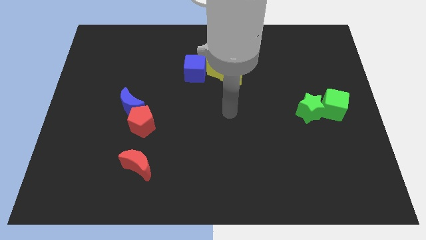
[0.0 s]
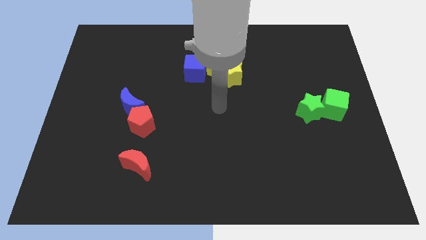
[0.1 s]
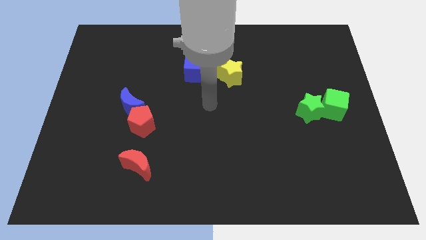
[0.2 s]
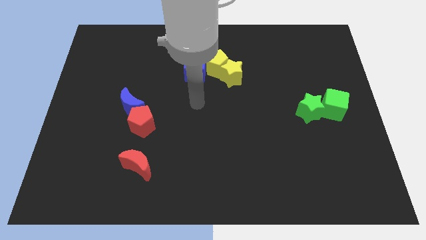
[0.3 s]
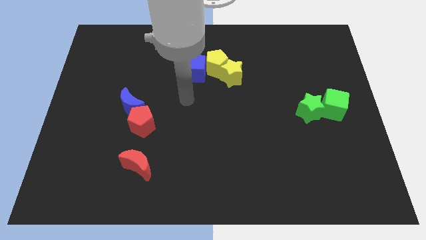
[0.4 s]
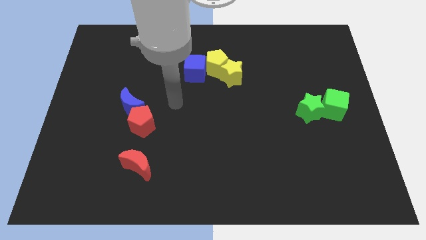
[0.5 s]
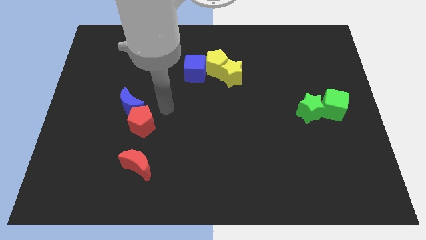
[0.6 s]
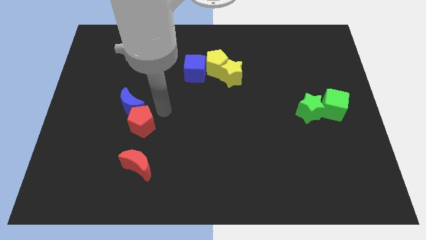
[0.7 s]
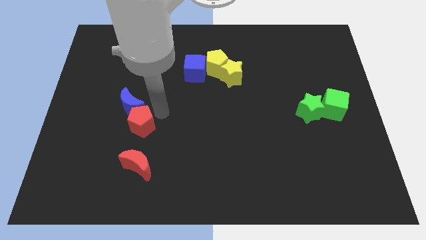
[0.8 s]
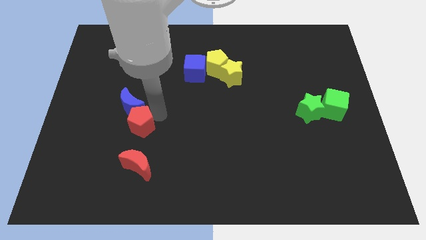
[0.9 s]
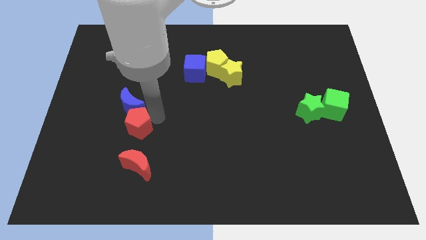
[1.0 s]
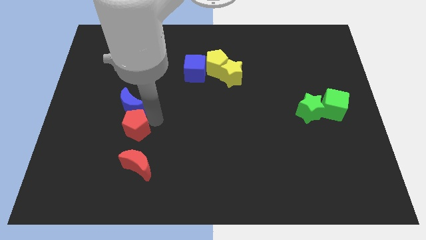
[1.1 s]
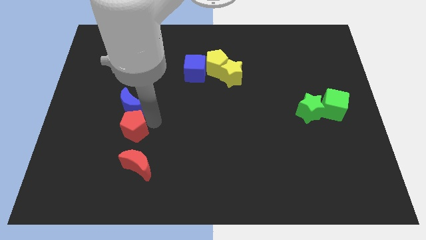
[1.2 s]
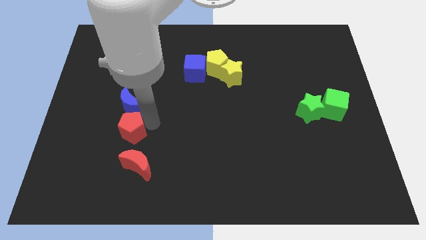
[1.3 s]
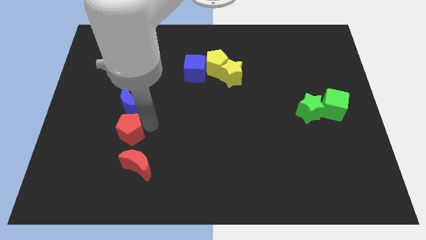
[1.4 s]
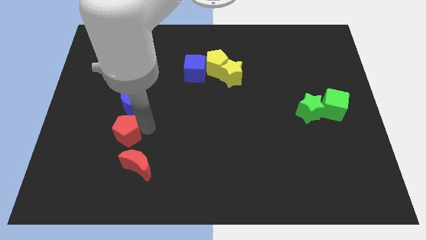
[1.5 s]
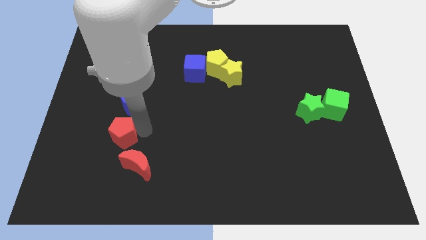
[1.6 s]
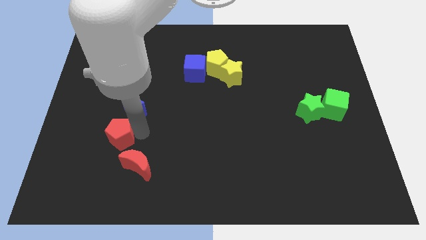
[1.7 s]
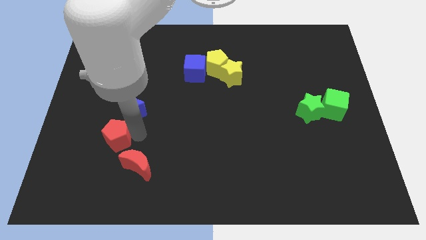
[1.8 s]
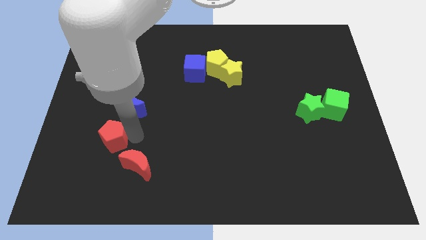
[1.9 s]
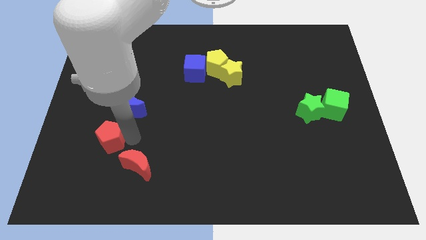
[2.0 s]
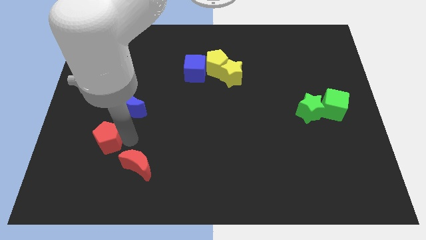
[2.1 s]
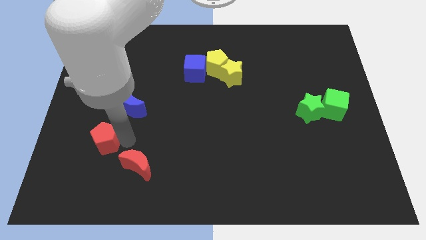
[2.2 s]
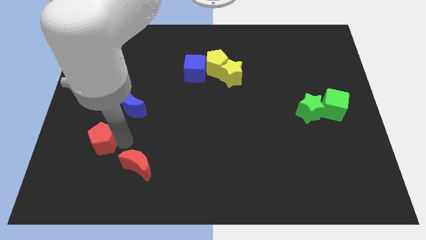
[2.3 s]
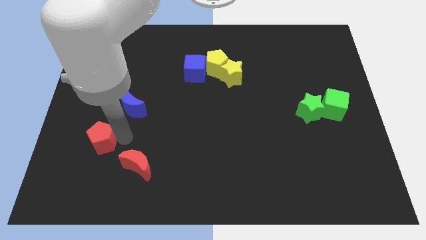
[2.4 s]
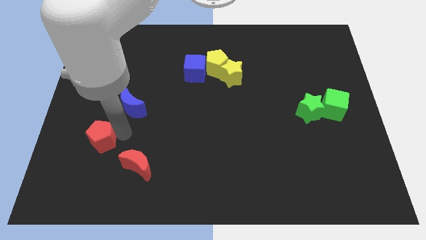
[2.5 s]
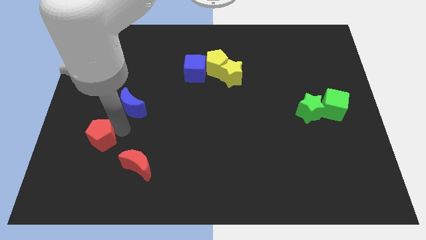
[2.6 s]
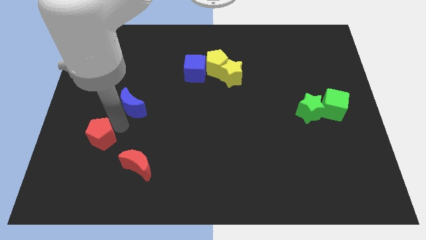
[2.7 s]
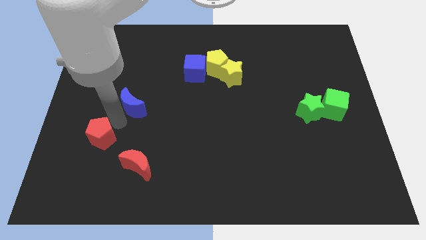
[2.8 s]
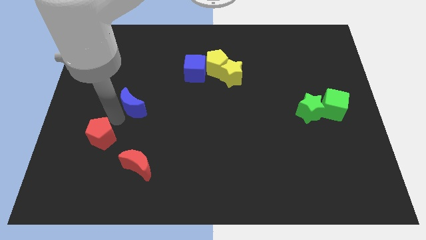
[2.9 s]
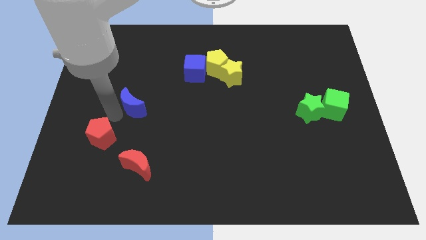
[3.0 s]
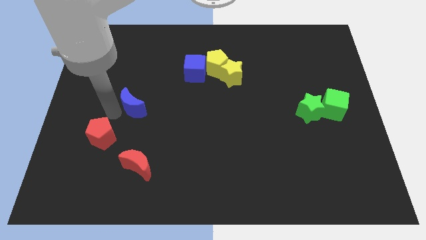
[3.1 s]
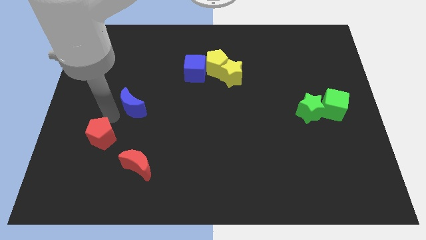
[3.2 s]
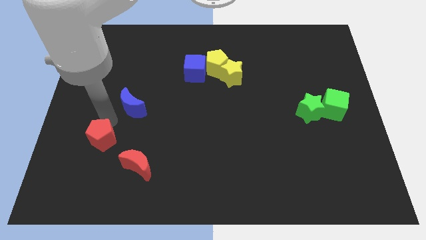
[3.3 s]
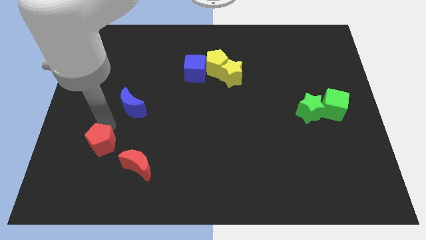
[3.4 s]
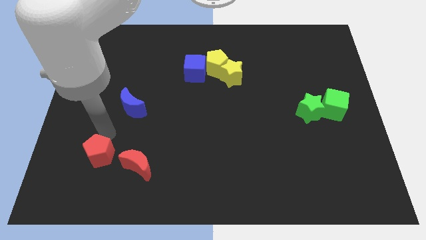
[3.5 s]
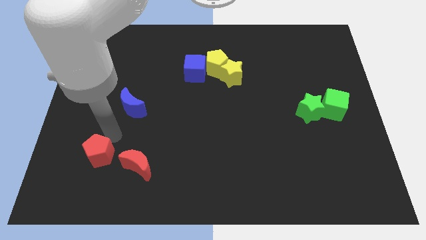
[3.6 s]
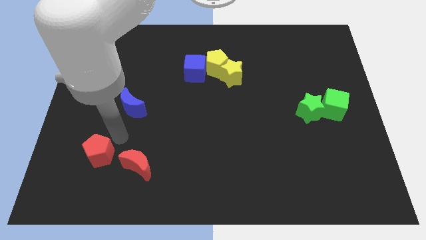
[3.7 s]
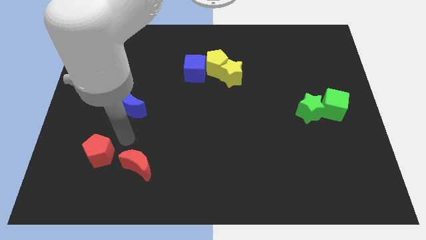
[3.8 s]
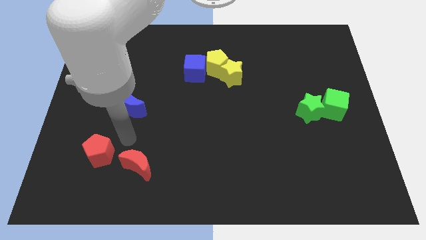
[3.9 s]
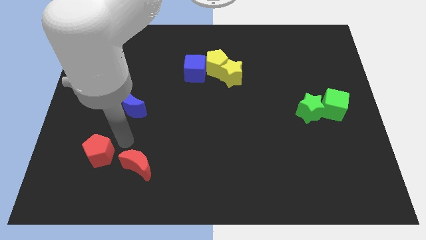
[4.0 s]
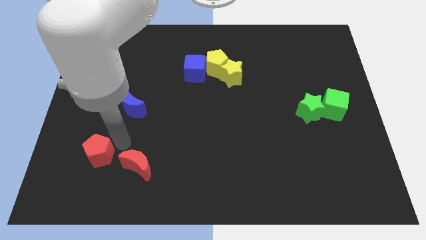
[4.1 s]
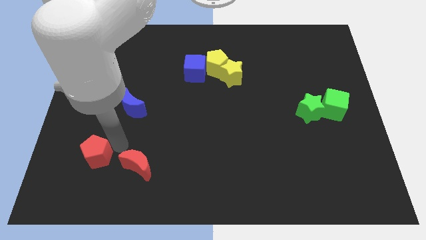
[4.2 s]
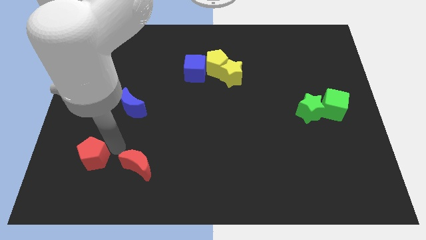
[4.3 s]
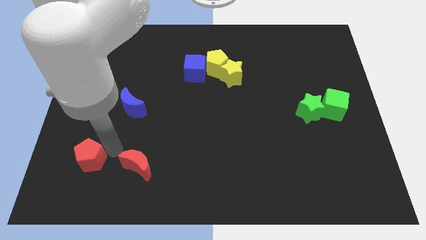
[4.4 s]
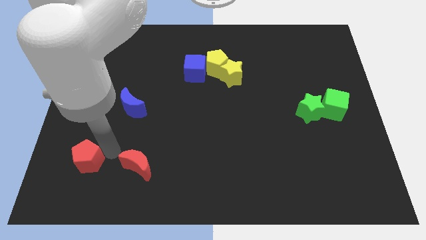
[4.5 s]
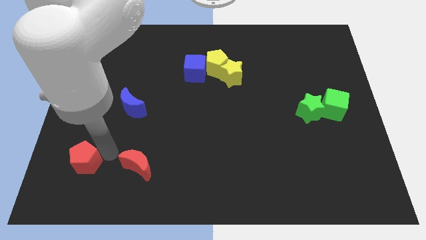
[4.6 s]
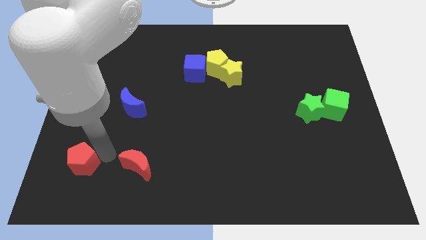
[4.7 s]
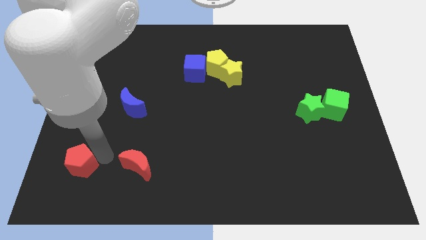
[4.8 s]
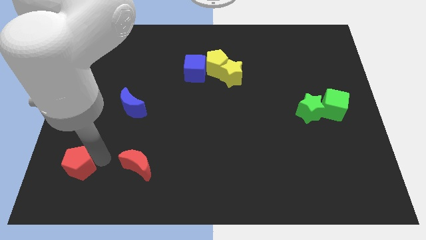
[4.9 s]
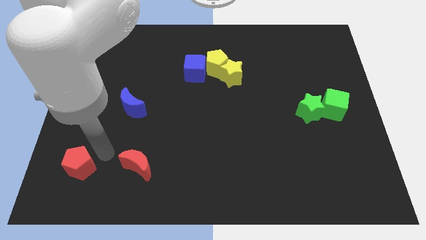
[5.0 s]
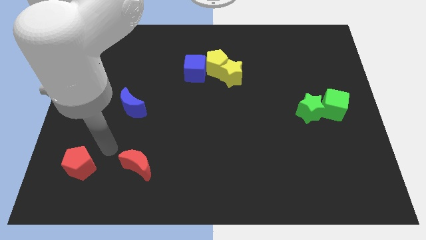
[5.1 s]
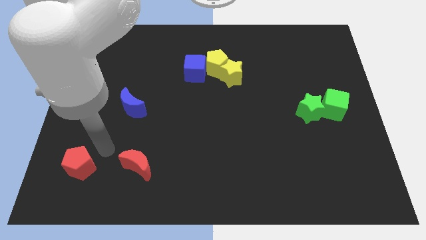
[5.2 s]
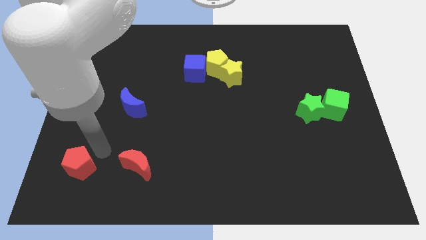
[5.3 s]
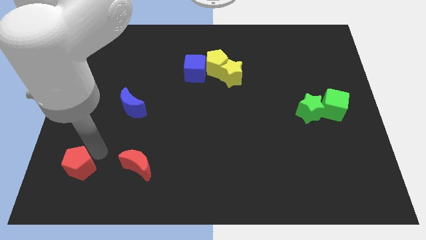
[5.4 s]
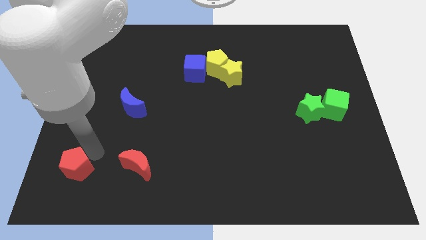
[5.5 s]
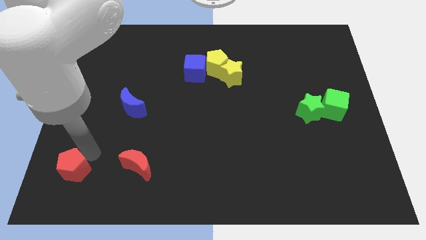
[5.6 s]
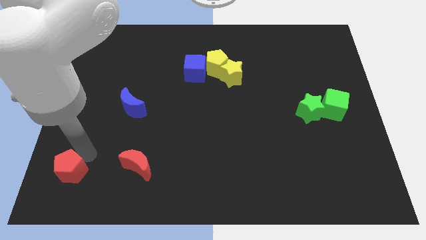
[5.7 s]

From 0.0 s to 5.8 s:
slide the red pentagon to the bottom left

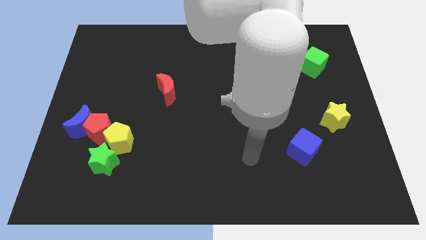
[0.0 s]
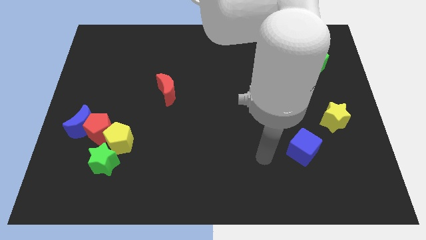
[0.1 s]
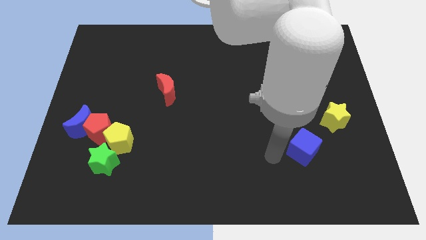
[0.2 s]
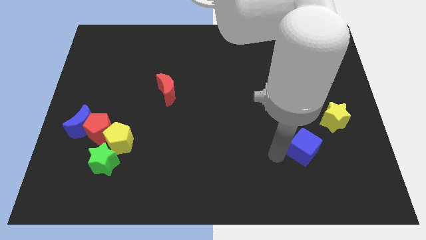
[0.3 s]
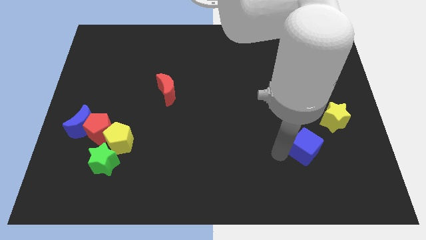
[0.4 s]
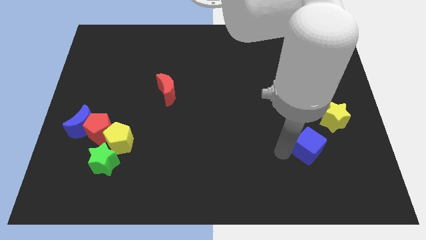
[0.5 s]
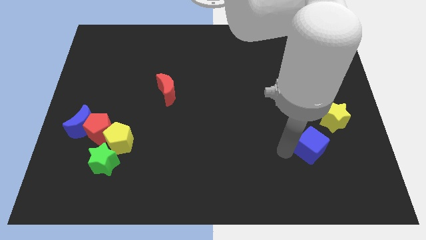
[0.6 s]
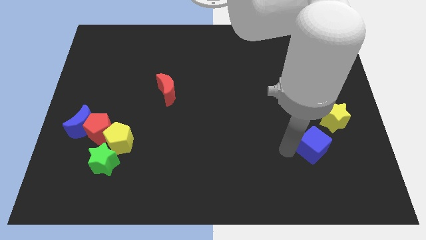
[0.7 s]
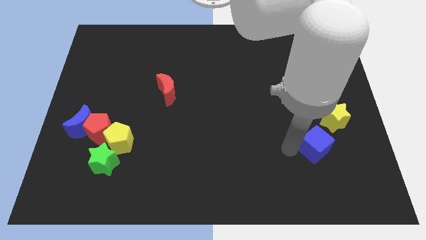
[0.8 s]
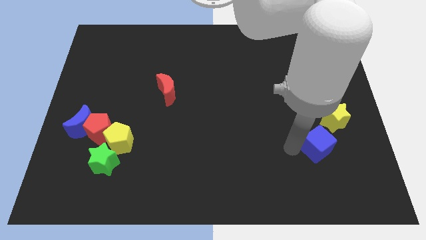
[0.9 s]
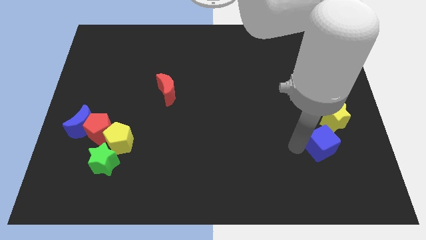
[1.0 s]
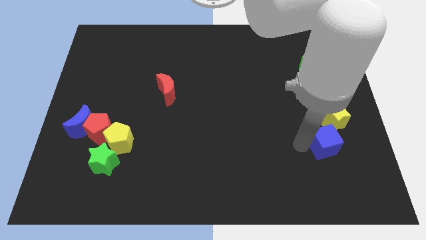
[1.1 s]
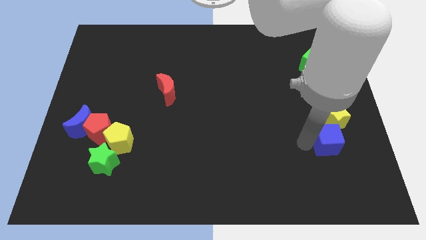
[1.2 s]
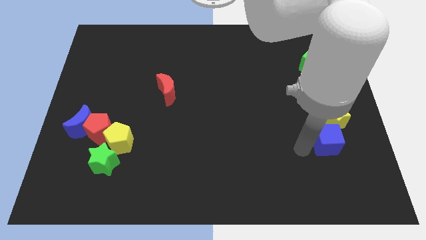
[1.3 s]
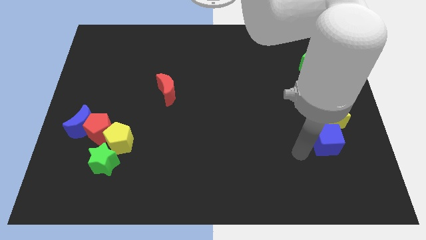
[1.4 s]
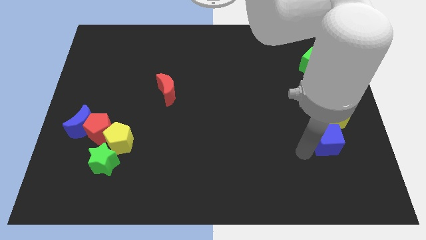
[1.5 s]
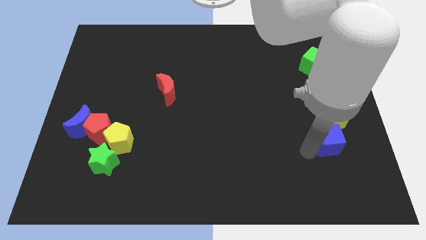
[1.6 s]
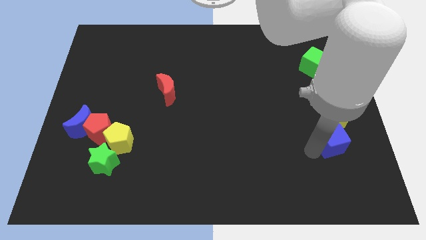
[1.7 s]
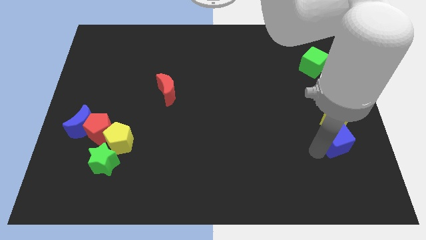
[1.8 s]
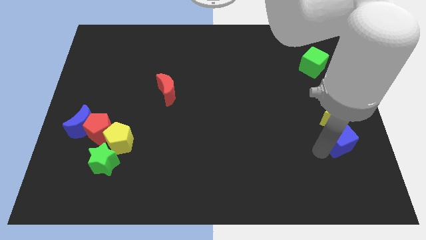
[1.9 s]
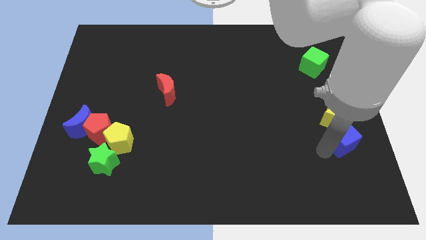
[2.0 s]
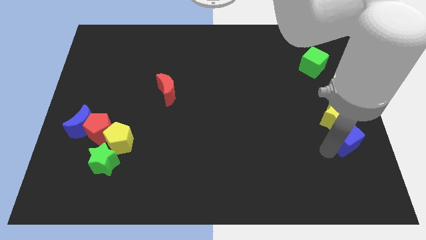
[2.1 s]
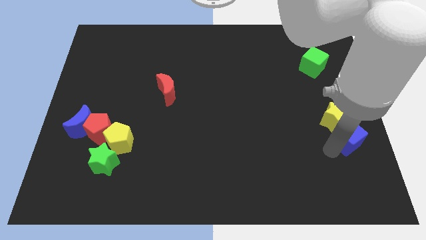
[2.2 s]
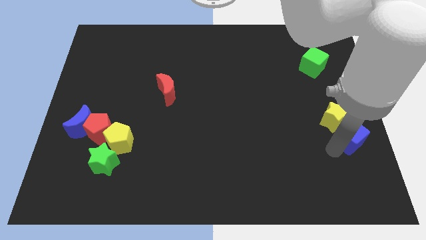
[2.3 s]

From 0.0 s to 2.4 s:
slide the blue cube to the right side
